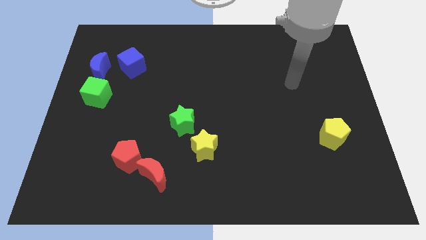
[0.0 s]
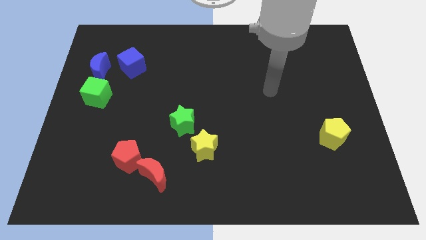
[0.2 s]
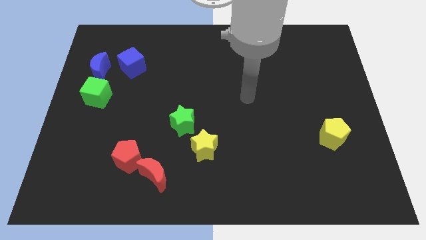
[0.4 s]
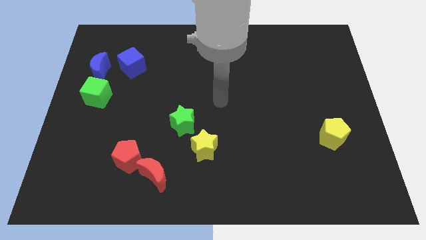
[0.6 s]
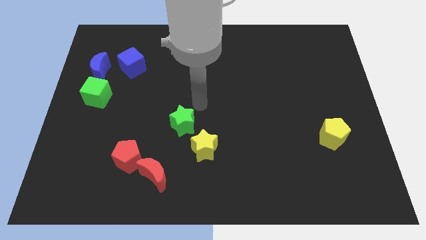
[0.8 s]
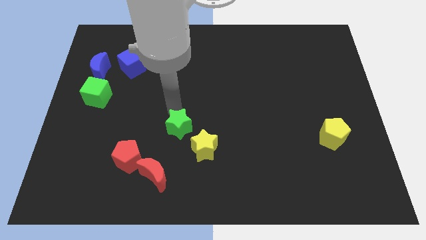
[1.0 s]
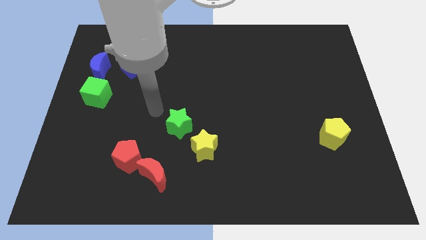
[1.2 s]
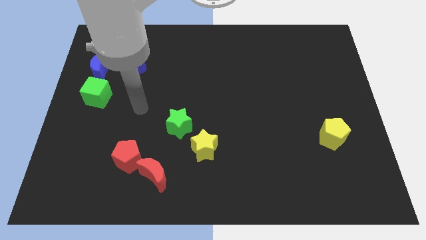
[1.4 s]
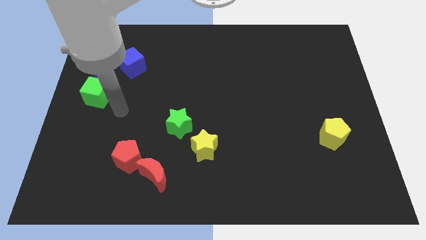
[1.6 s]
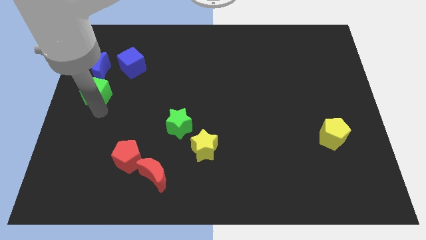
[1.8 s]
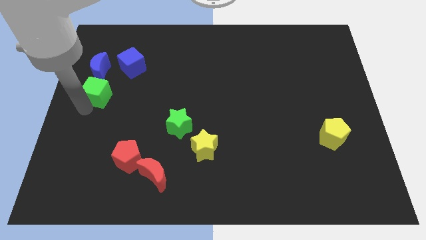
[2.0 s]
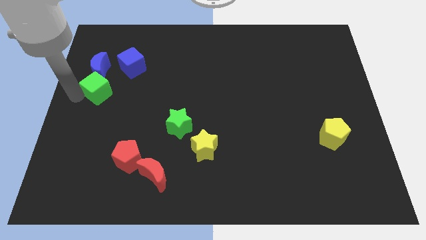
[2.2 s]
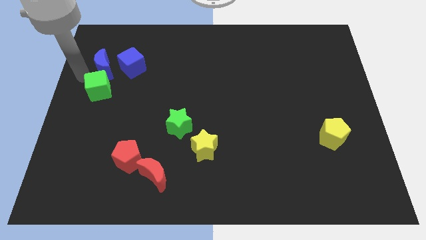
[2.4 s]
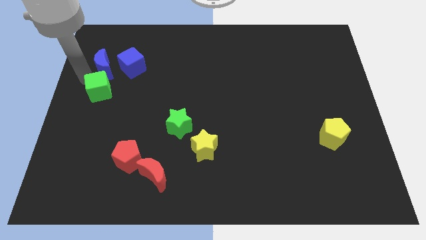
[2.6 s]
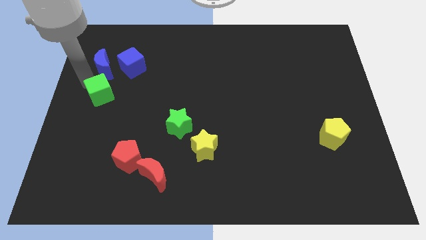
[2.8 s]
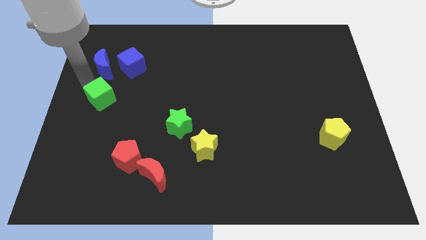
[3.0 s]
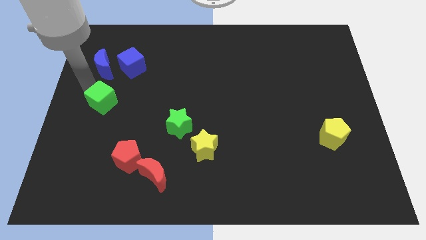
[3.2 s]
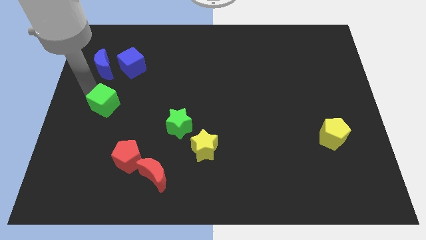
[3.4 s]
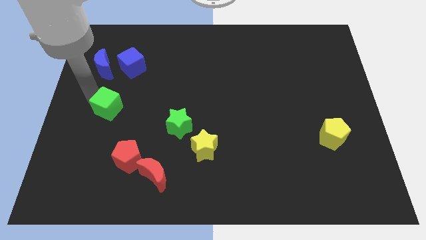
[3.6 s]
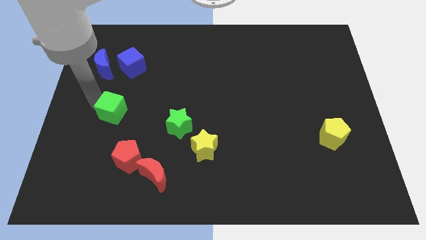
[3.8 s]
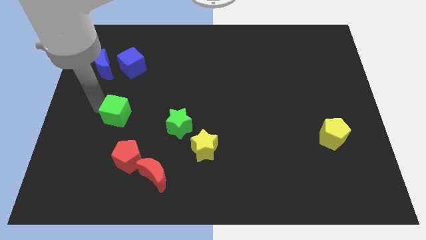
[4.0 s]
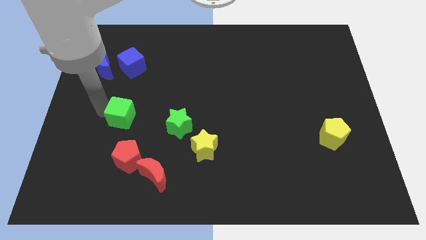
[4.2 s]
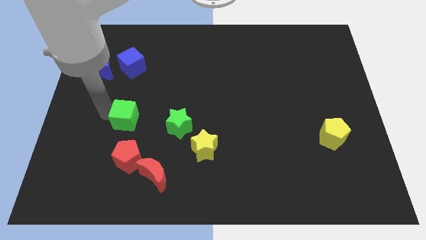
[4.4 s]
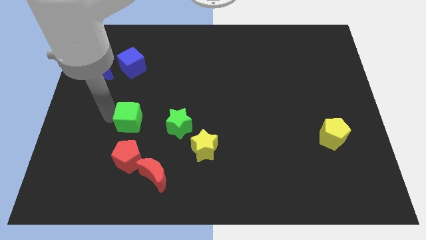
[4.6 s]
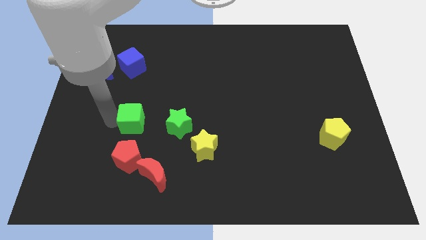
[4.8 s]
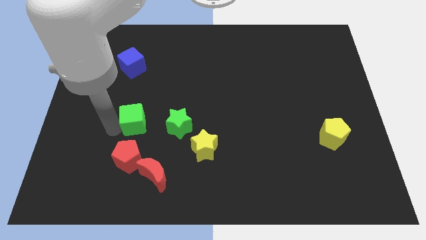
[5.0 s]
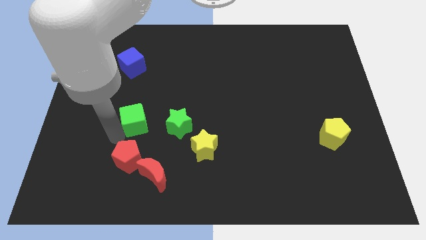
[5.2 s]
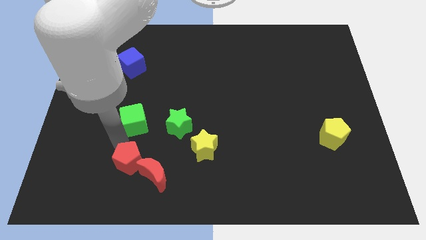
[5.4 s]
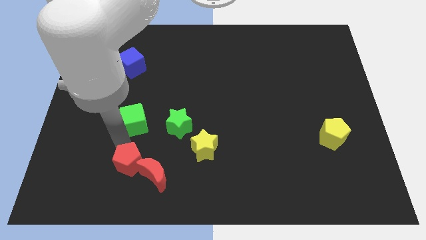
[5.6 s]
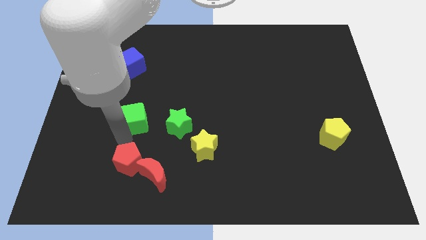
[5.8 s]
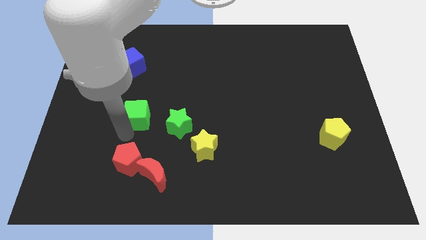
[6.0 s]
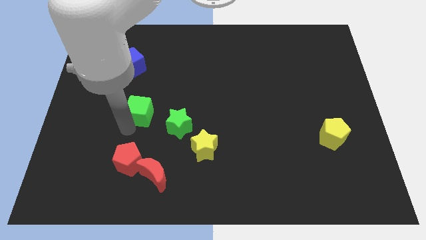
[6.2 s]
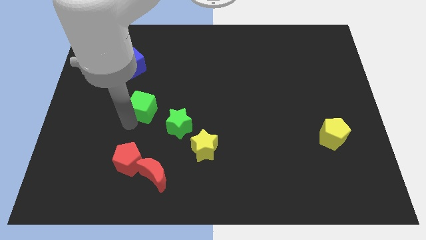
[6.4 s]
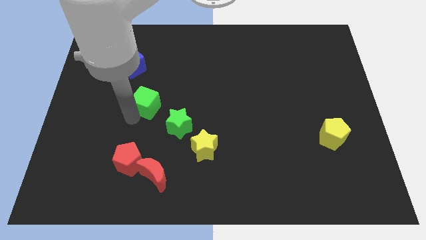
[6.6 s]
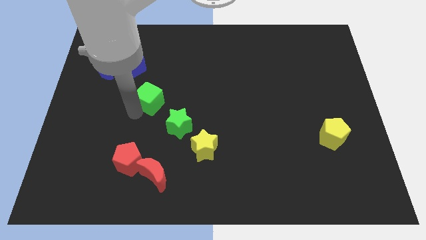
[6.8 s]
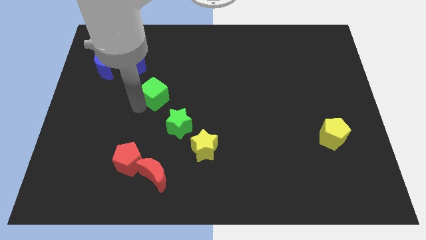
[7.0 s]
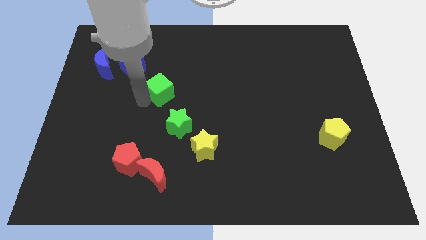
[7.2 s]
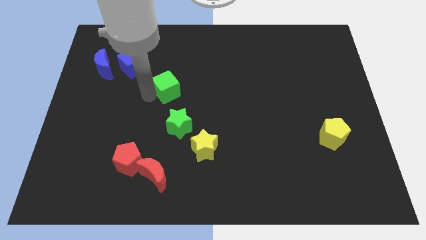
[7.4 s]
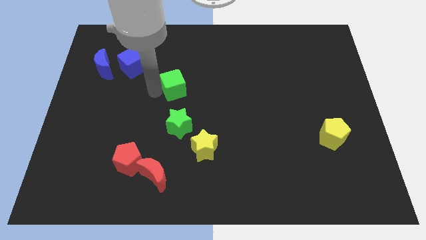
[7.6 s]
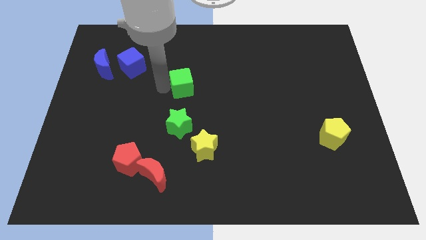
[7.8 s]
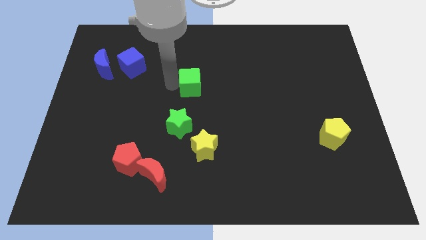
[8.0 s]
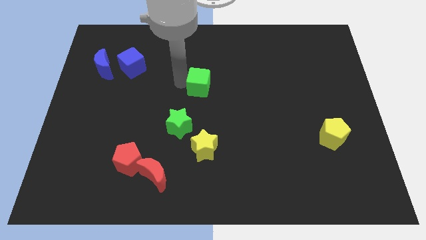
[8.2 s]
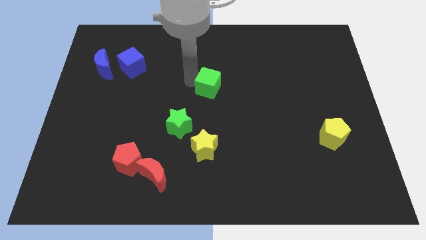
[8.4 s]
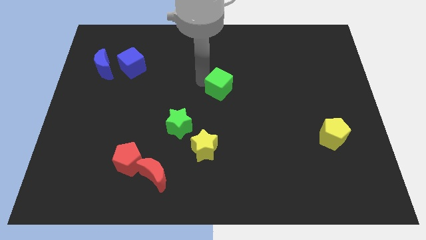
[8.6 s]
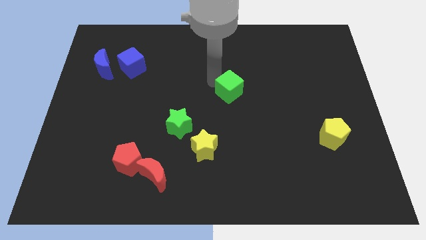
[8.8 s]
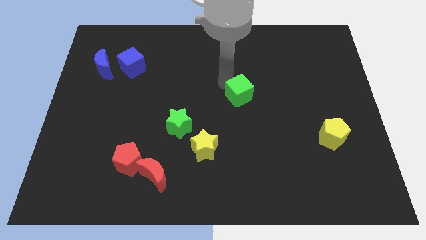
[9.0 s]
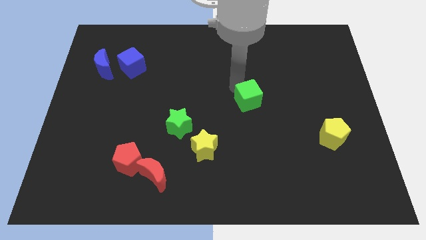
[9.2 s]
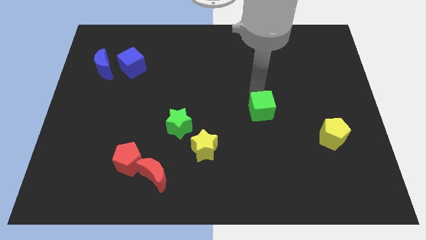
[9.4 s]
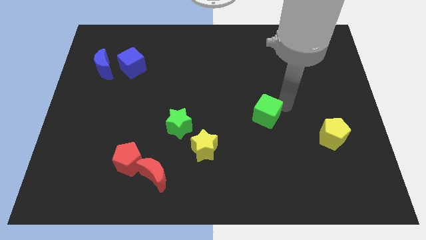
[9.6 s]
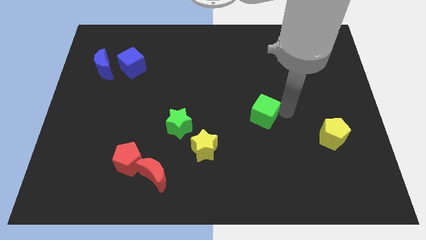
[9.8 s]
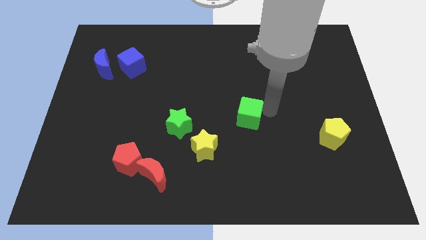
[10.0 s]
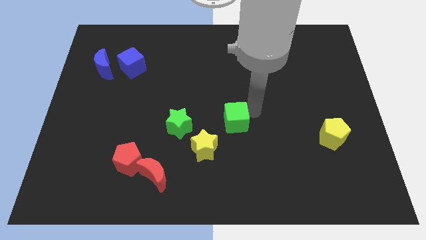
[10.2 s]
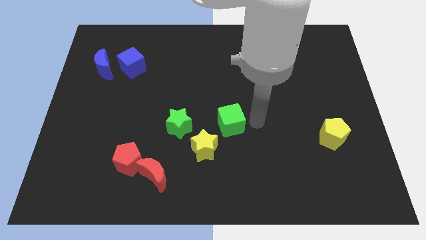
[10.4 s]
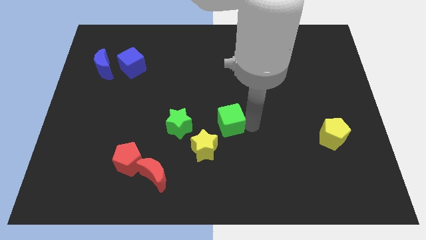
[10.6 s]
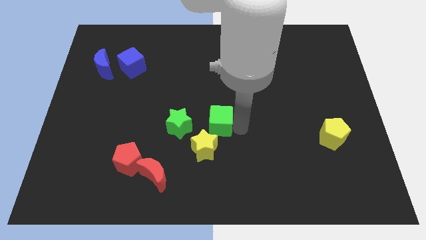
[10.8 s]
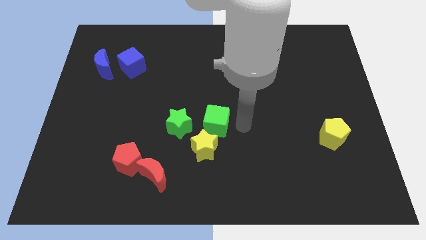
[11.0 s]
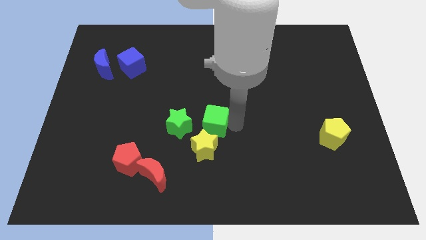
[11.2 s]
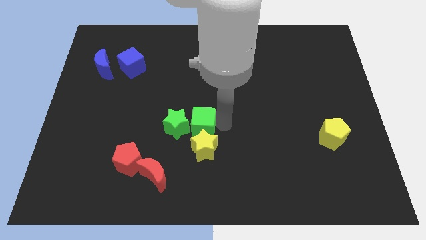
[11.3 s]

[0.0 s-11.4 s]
slide the green cube next to the green star
